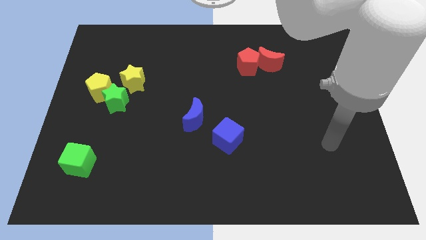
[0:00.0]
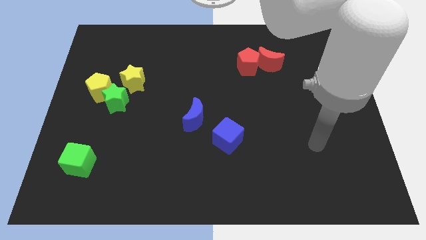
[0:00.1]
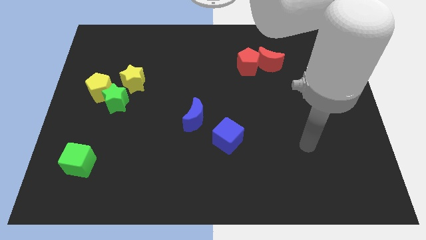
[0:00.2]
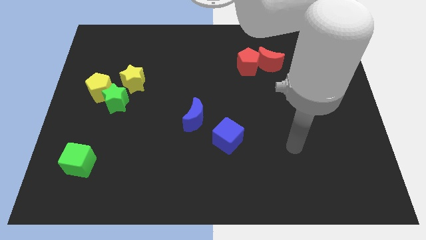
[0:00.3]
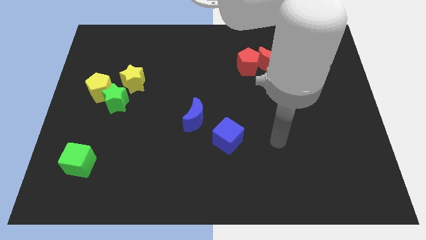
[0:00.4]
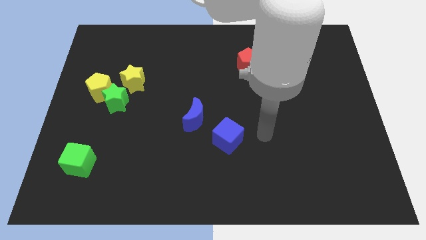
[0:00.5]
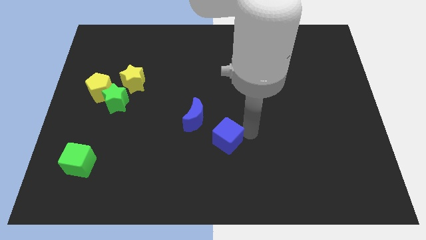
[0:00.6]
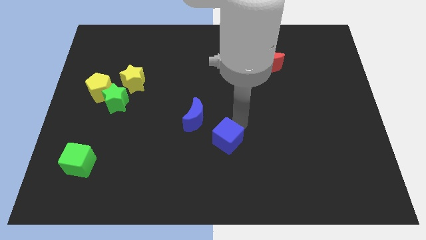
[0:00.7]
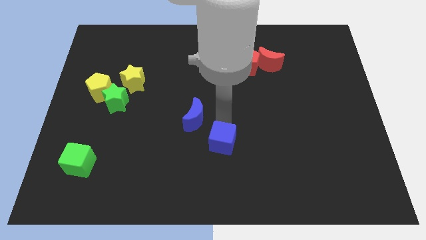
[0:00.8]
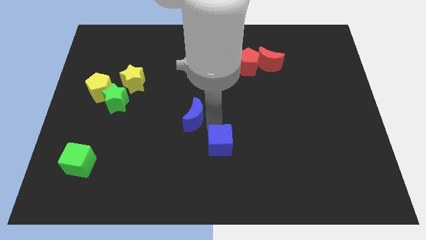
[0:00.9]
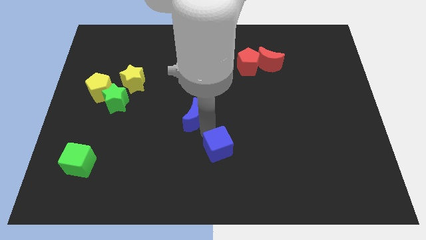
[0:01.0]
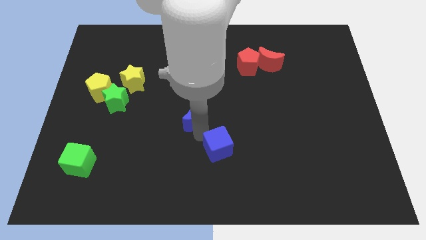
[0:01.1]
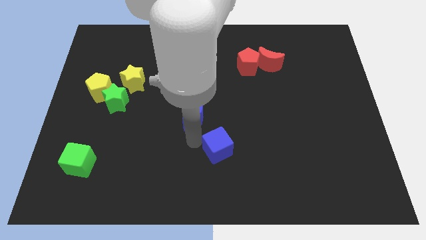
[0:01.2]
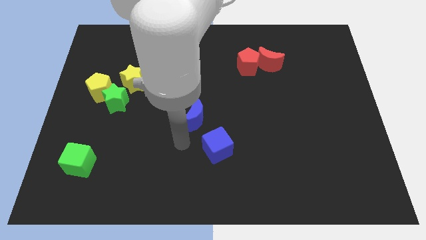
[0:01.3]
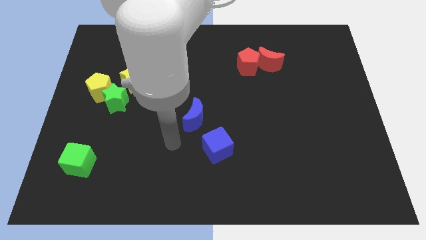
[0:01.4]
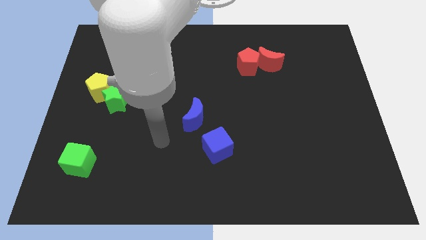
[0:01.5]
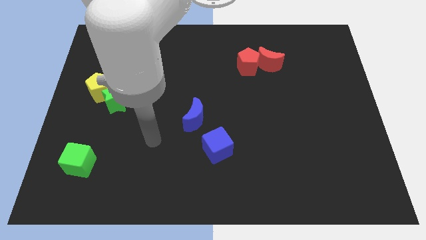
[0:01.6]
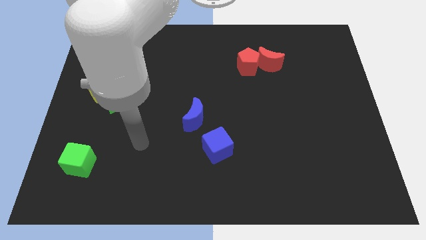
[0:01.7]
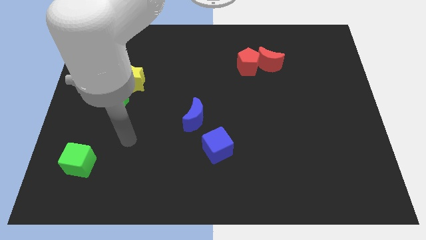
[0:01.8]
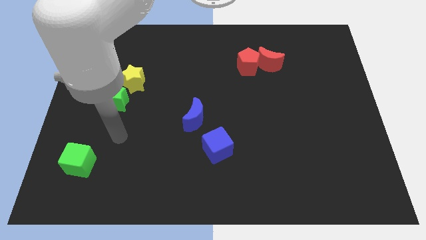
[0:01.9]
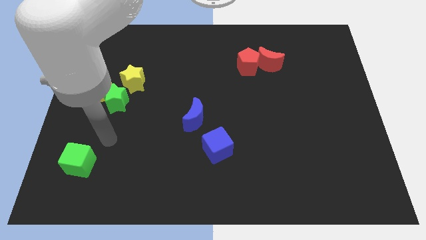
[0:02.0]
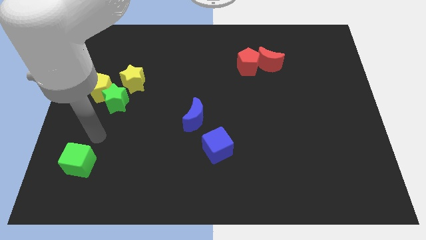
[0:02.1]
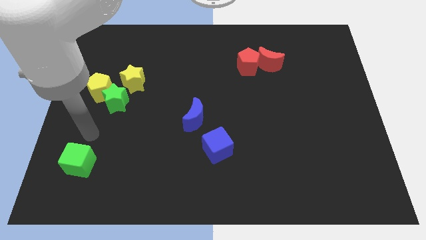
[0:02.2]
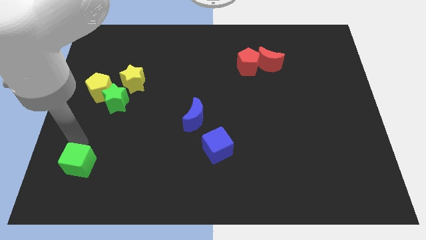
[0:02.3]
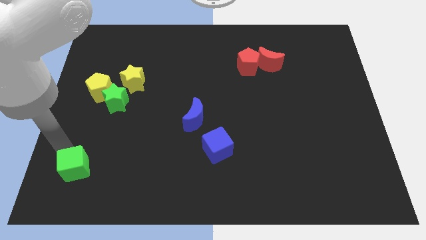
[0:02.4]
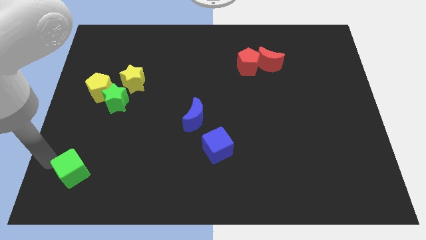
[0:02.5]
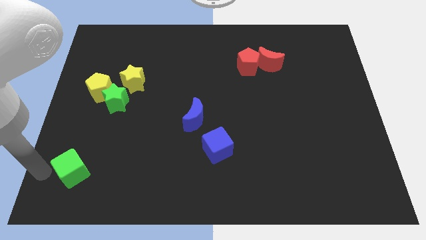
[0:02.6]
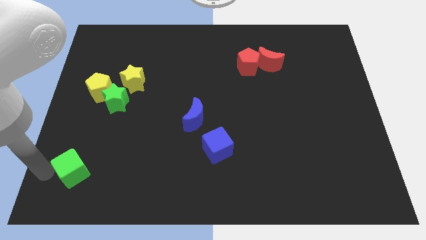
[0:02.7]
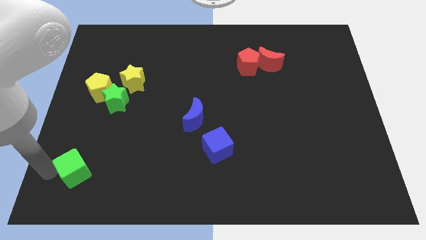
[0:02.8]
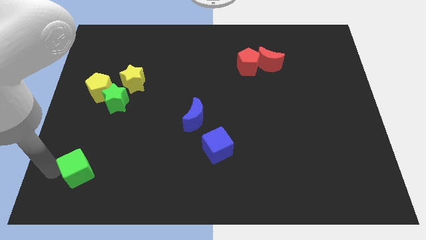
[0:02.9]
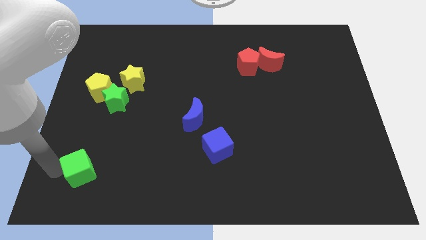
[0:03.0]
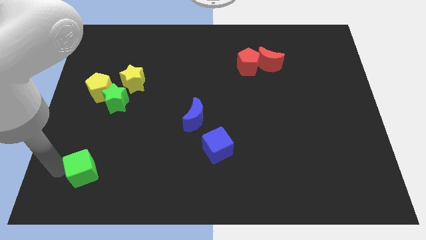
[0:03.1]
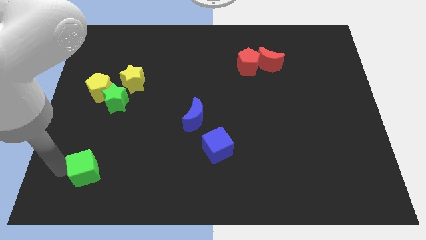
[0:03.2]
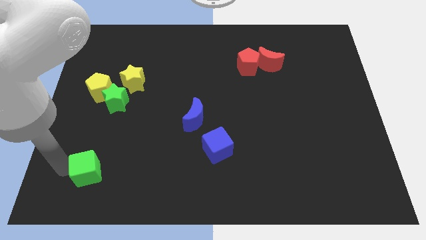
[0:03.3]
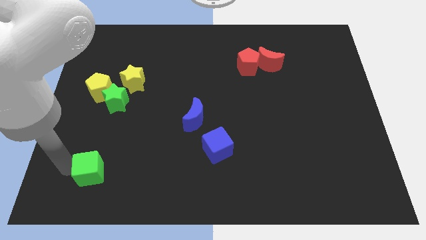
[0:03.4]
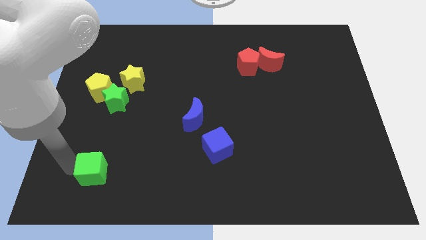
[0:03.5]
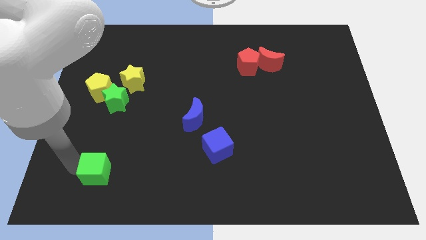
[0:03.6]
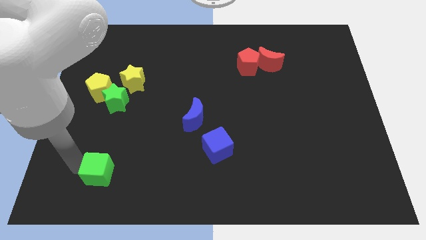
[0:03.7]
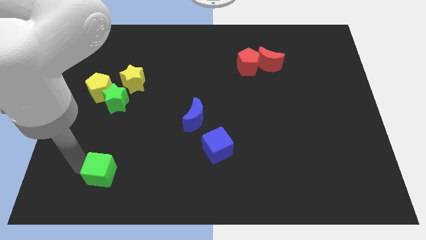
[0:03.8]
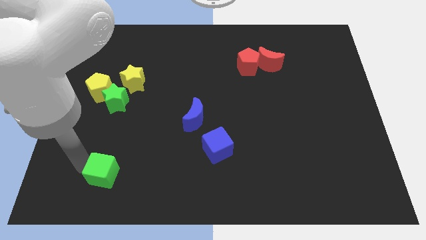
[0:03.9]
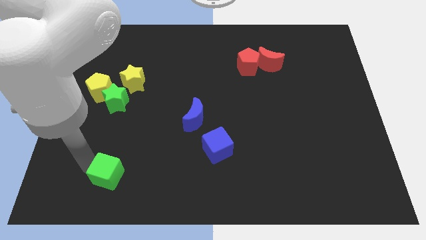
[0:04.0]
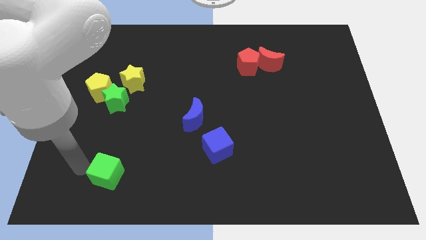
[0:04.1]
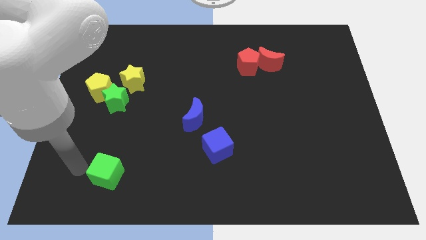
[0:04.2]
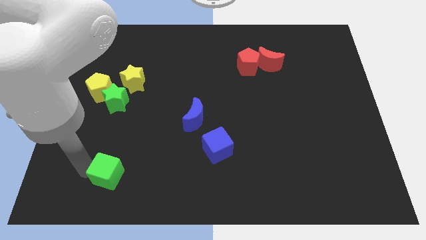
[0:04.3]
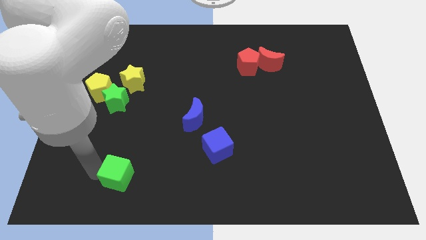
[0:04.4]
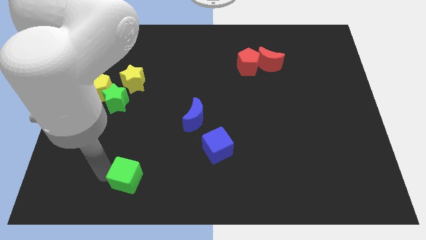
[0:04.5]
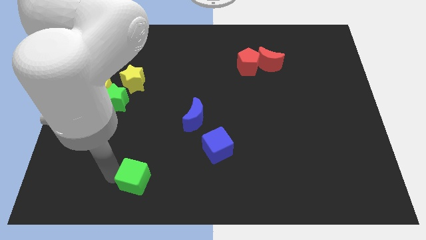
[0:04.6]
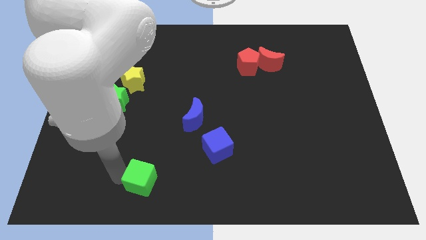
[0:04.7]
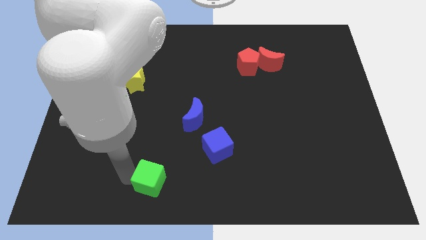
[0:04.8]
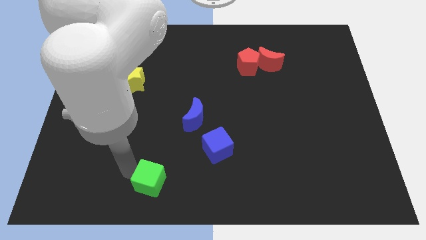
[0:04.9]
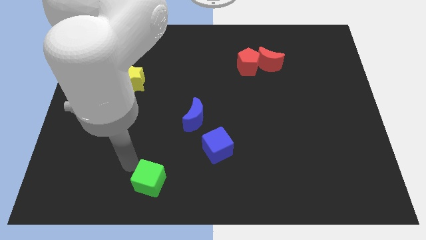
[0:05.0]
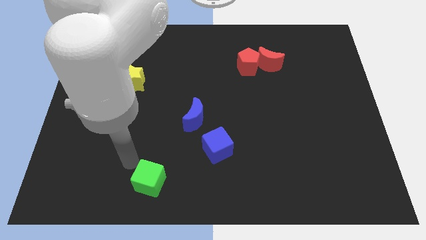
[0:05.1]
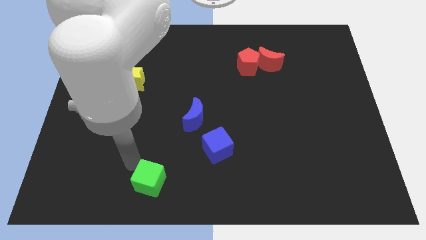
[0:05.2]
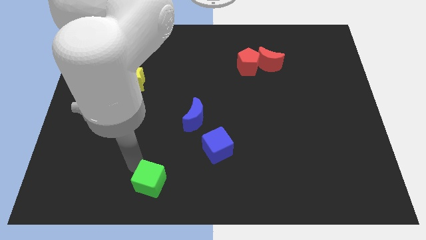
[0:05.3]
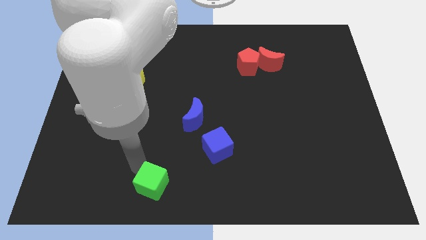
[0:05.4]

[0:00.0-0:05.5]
put the green cube to the bottom side
